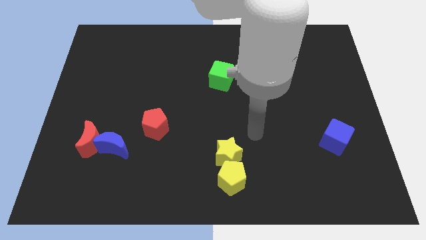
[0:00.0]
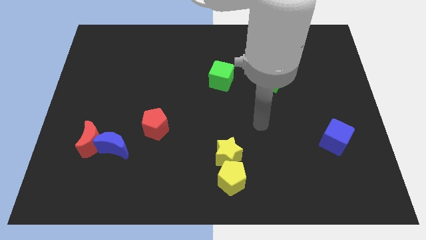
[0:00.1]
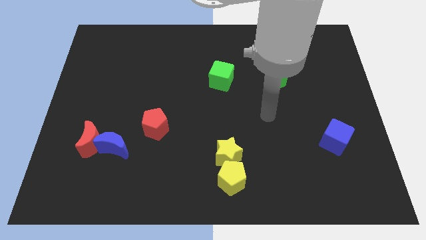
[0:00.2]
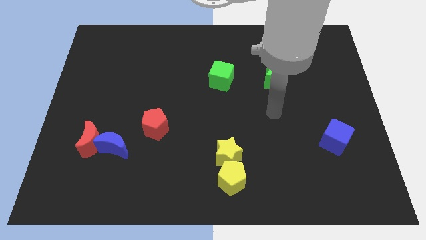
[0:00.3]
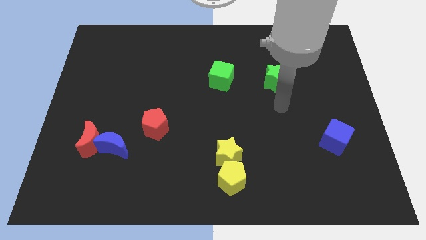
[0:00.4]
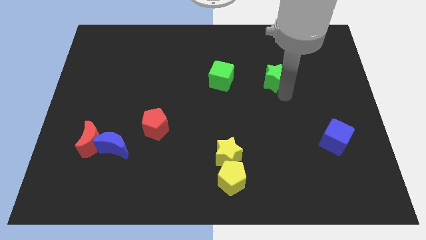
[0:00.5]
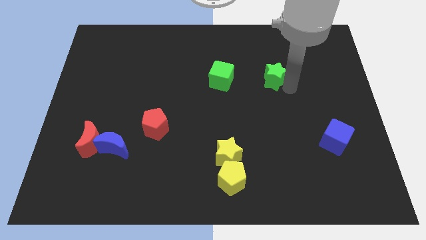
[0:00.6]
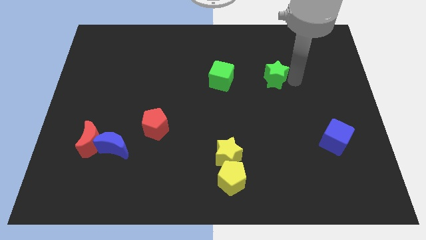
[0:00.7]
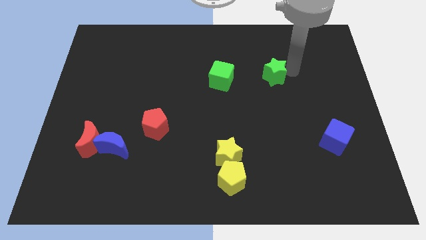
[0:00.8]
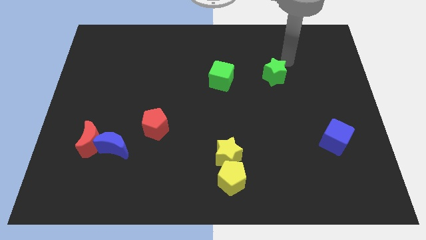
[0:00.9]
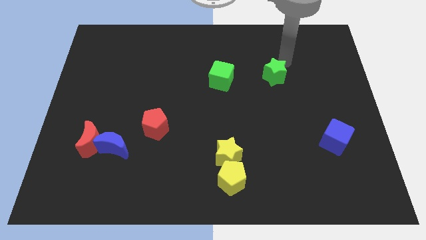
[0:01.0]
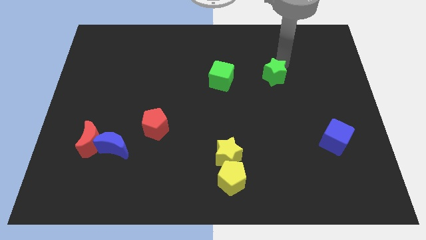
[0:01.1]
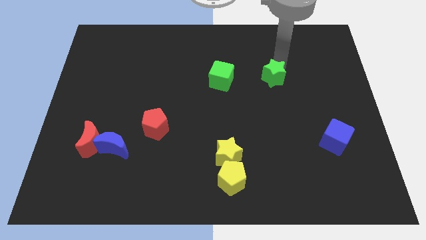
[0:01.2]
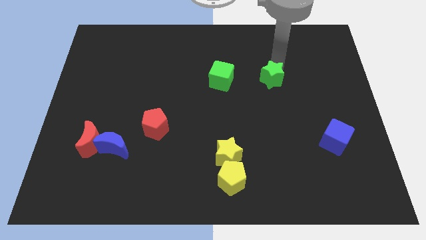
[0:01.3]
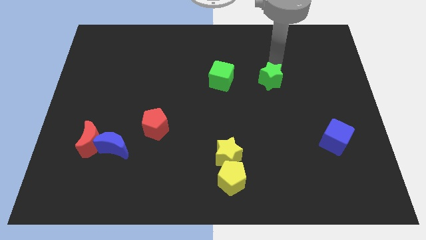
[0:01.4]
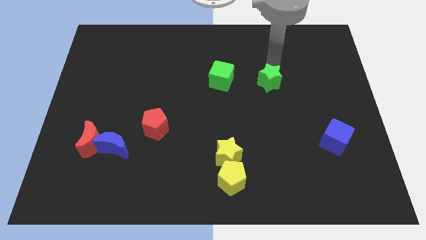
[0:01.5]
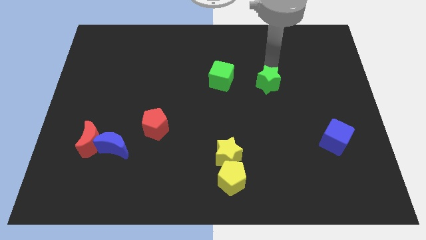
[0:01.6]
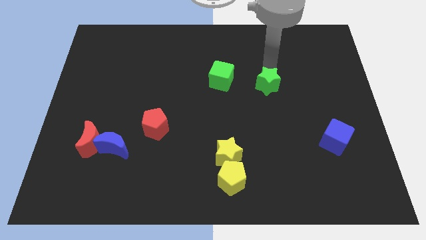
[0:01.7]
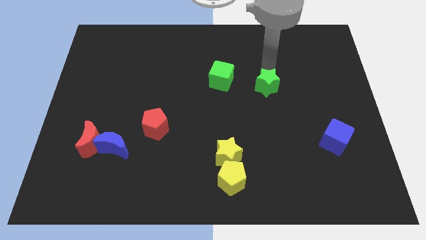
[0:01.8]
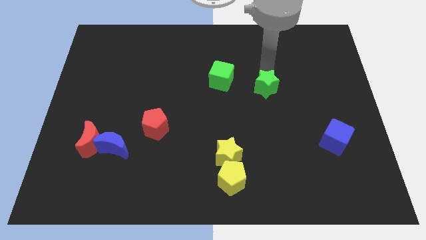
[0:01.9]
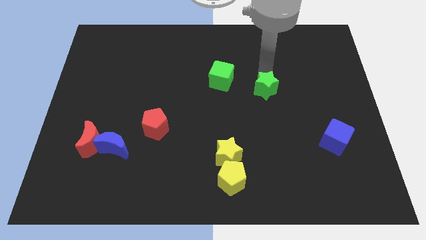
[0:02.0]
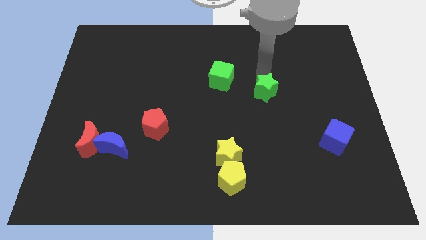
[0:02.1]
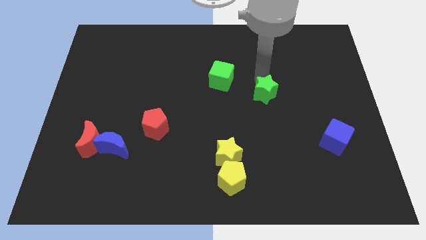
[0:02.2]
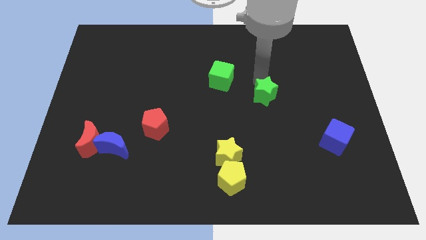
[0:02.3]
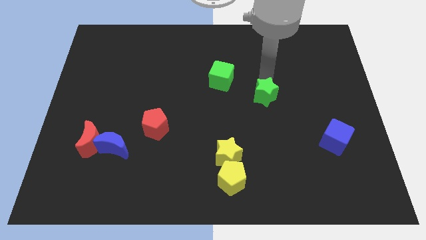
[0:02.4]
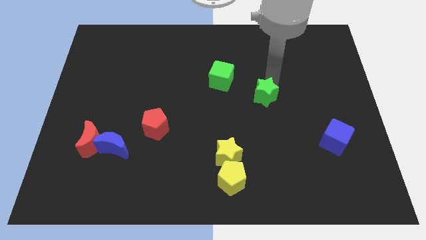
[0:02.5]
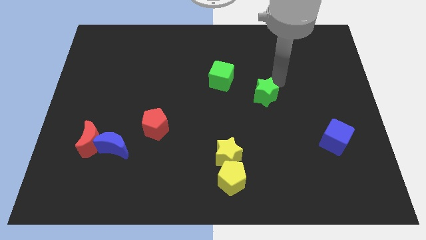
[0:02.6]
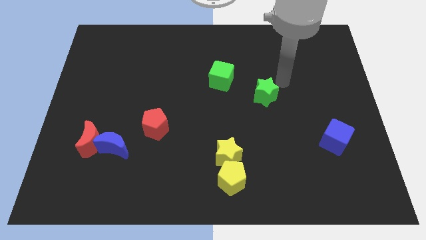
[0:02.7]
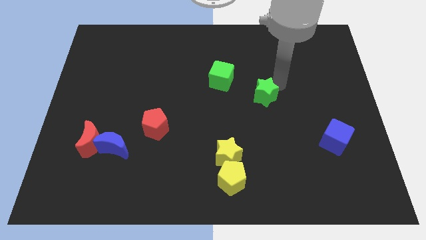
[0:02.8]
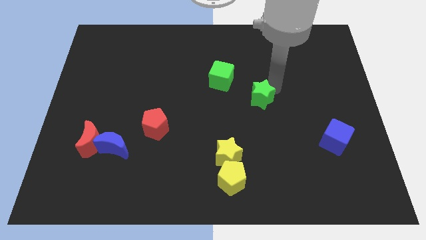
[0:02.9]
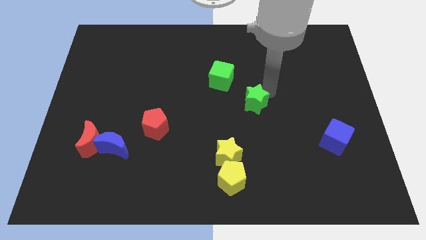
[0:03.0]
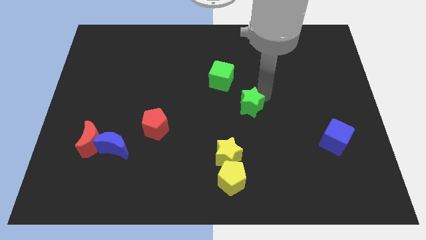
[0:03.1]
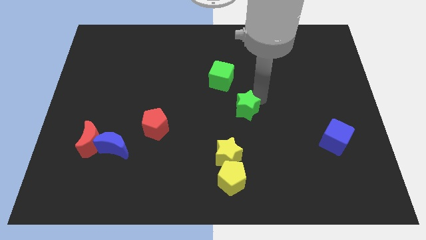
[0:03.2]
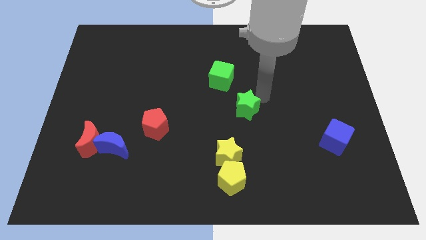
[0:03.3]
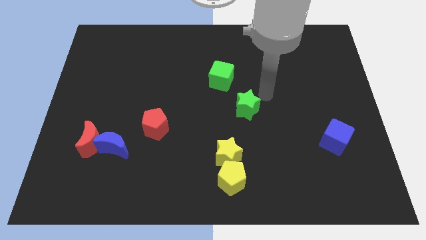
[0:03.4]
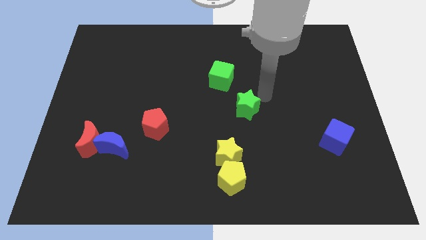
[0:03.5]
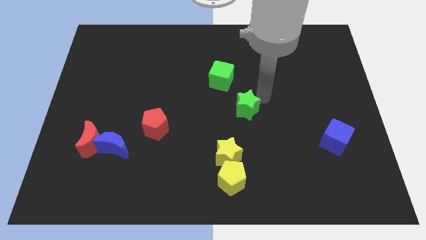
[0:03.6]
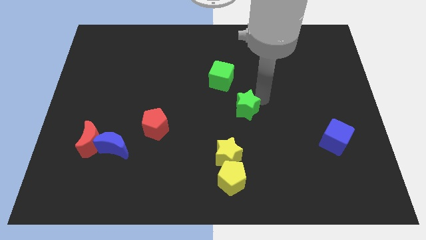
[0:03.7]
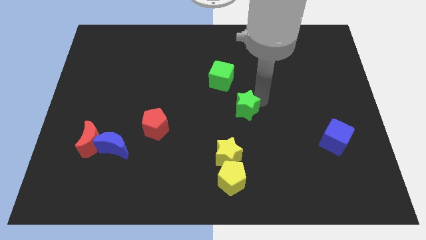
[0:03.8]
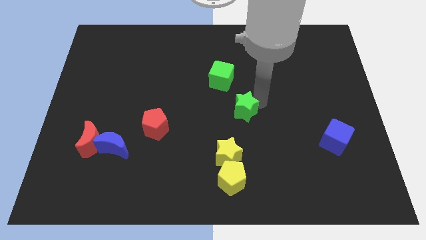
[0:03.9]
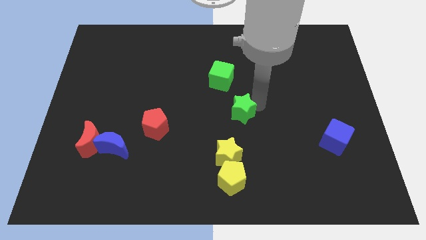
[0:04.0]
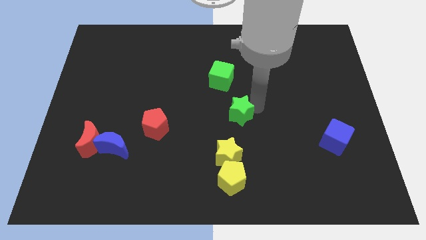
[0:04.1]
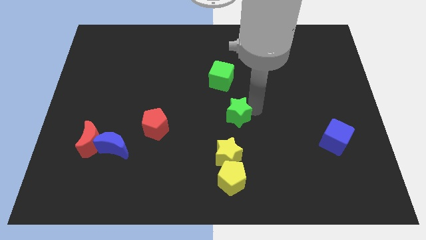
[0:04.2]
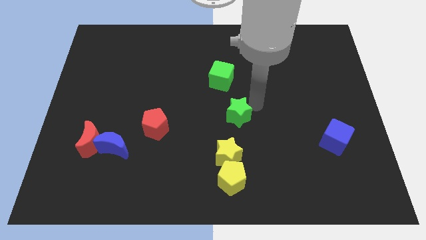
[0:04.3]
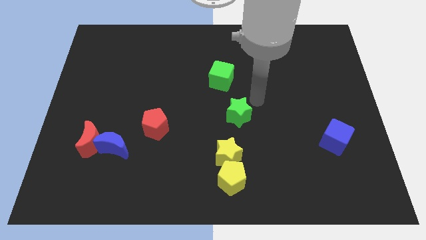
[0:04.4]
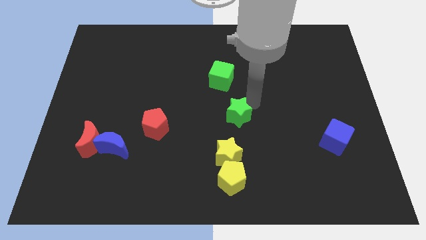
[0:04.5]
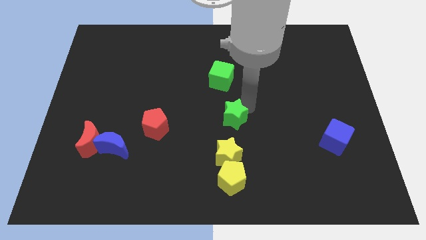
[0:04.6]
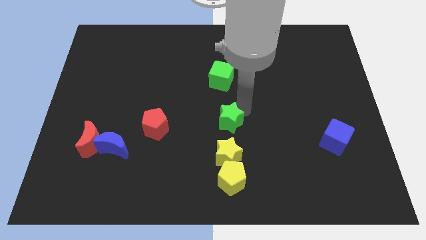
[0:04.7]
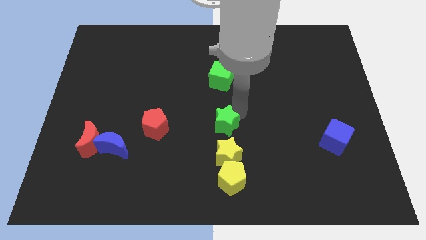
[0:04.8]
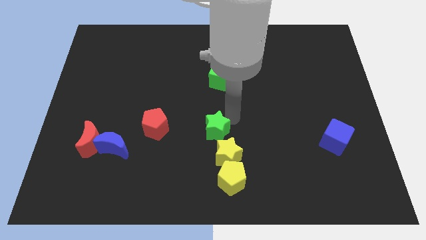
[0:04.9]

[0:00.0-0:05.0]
move the green star downwards and left diagonally

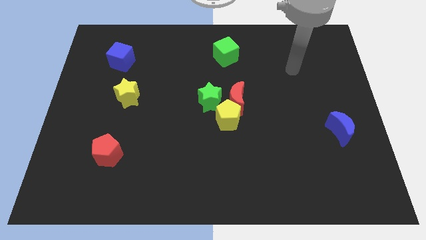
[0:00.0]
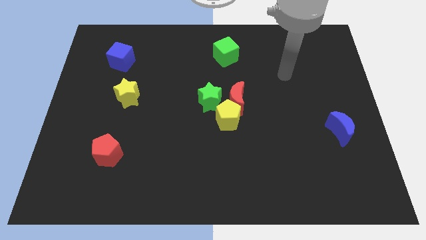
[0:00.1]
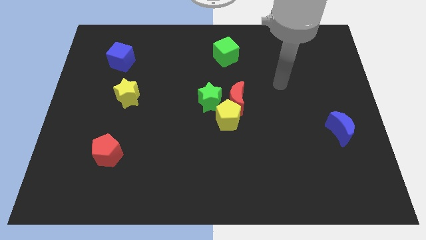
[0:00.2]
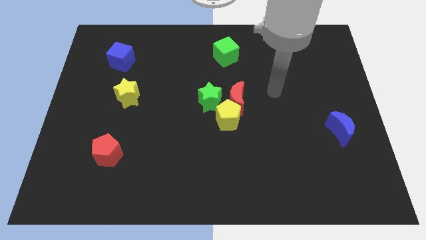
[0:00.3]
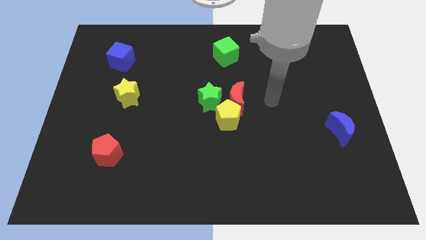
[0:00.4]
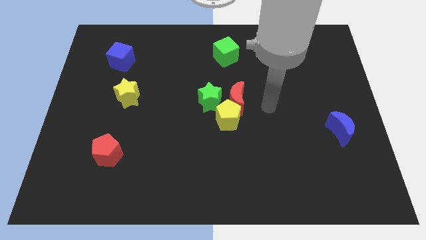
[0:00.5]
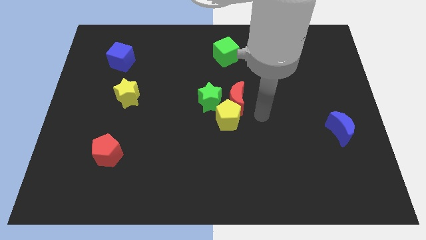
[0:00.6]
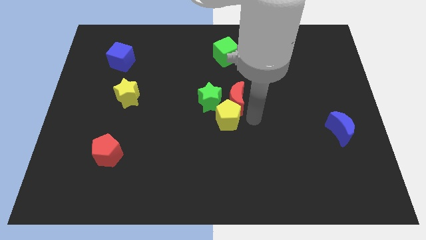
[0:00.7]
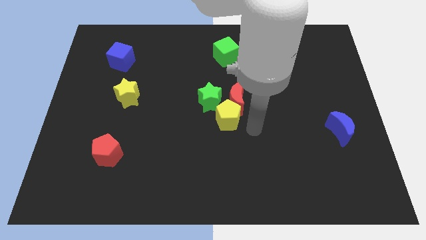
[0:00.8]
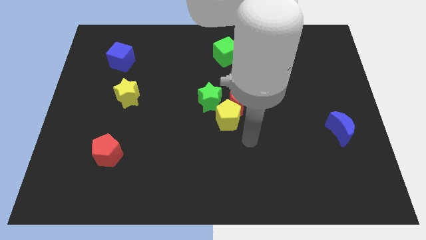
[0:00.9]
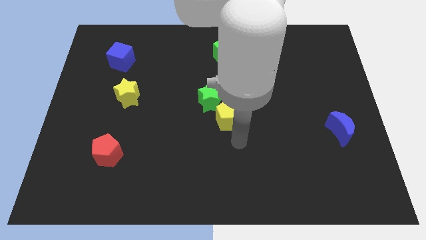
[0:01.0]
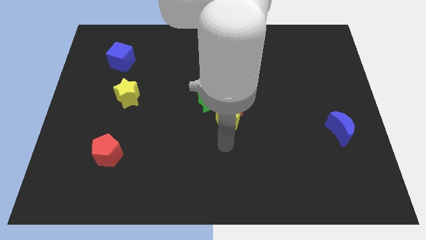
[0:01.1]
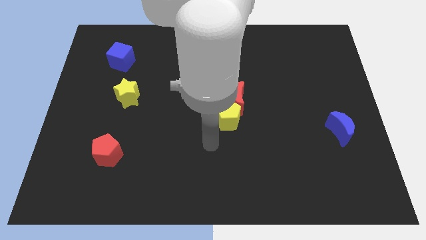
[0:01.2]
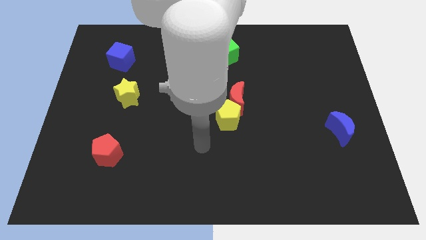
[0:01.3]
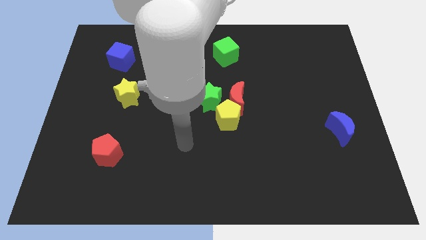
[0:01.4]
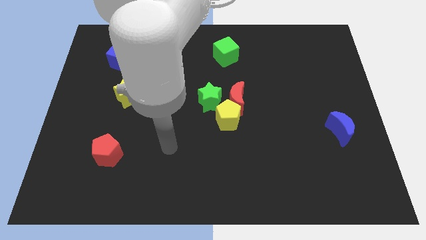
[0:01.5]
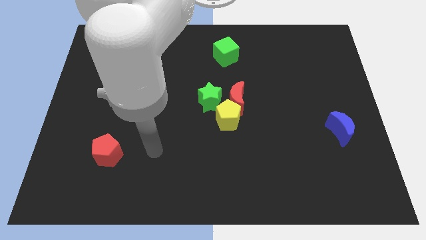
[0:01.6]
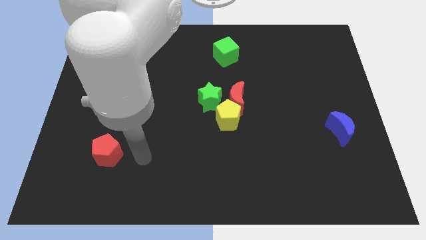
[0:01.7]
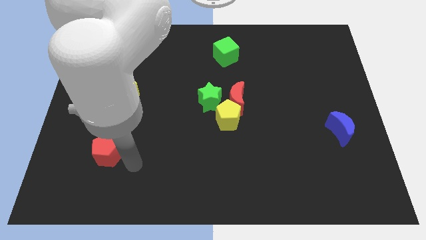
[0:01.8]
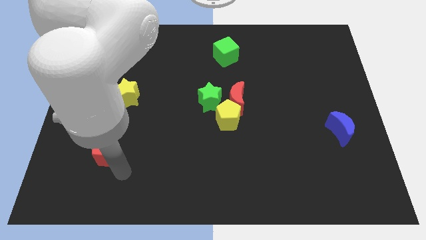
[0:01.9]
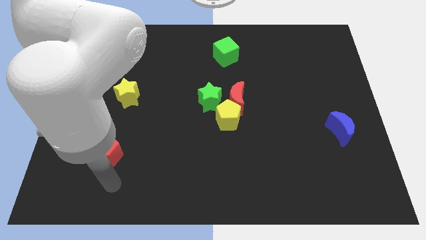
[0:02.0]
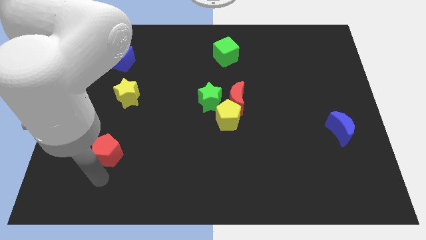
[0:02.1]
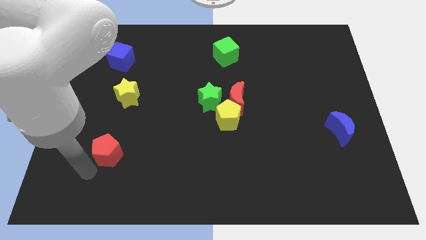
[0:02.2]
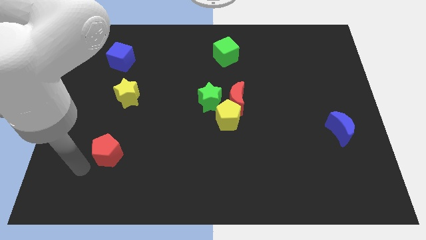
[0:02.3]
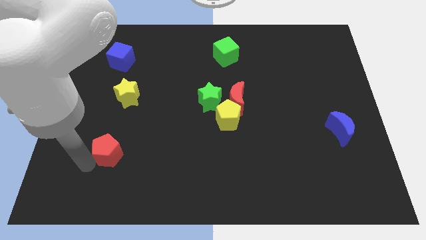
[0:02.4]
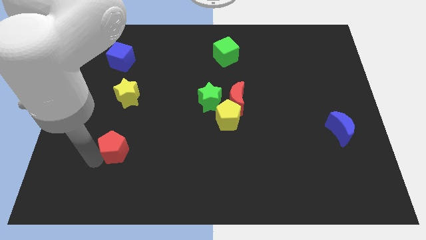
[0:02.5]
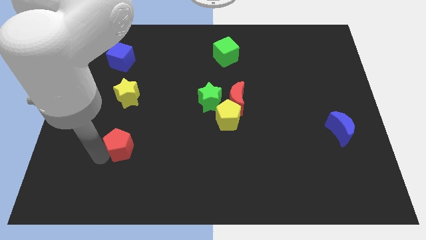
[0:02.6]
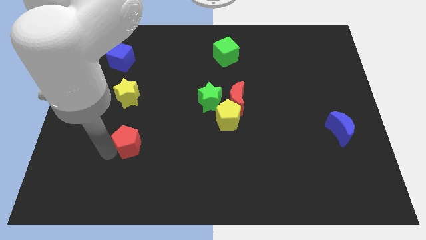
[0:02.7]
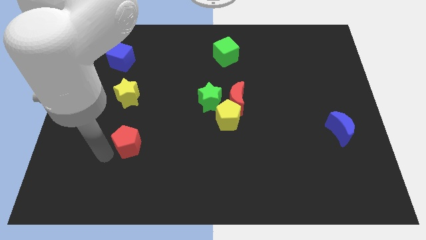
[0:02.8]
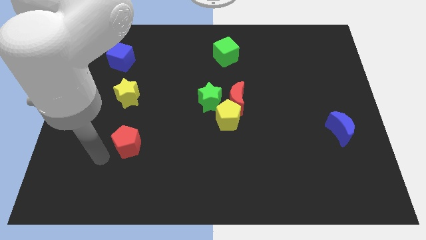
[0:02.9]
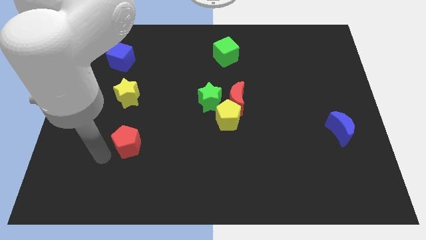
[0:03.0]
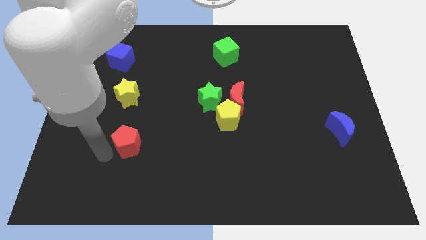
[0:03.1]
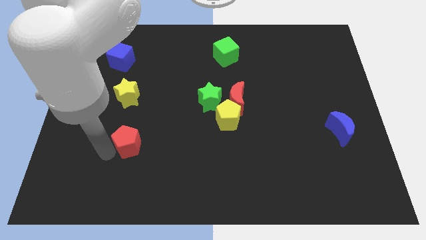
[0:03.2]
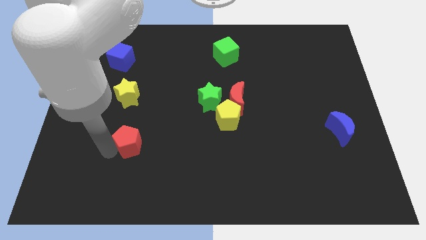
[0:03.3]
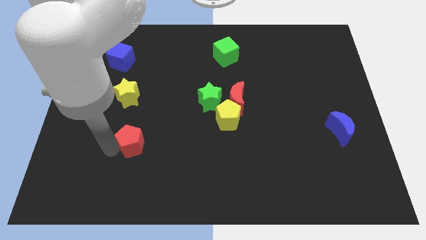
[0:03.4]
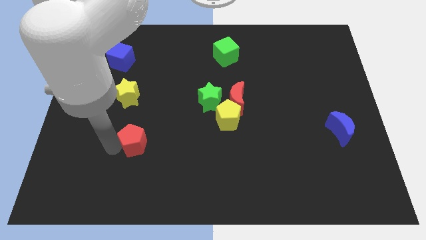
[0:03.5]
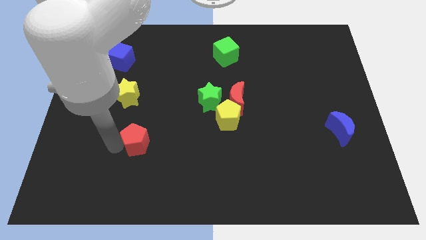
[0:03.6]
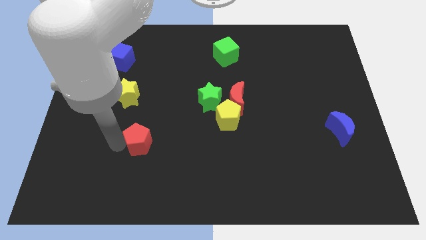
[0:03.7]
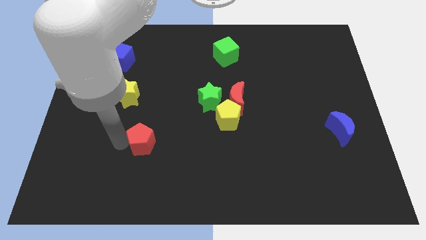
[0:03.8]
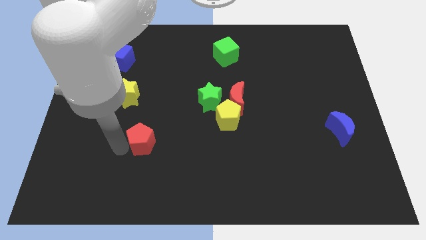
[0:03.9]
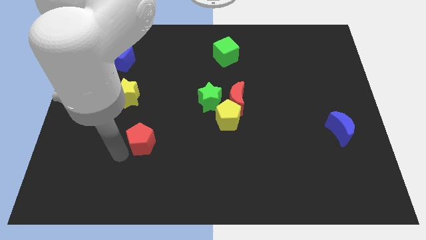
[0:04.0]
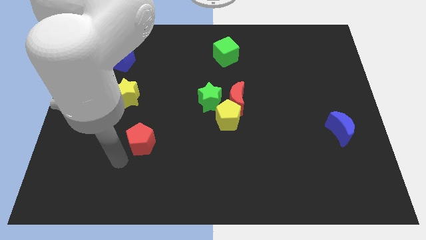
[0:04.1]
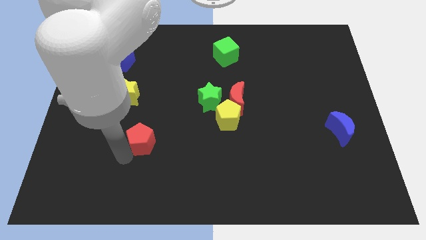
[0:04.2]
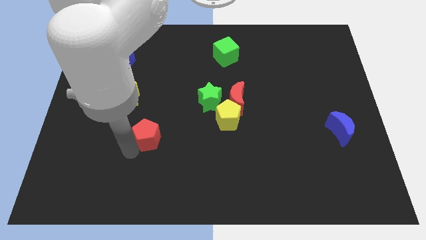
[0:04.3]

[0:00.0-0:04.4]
slightly move the red pentagon up and then to the right
